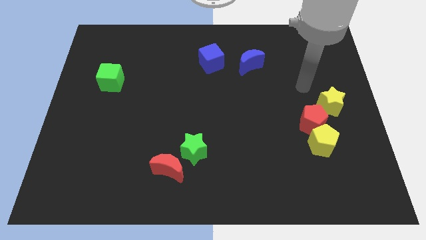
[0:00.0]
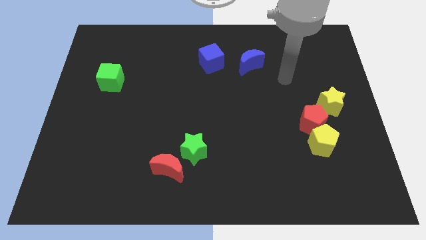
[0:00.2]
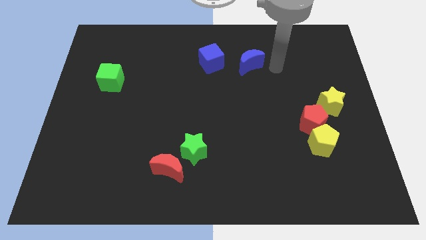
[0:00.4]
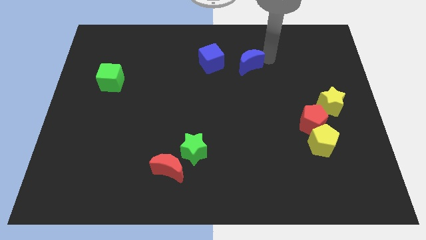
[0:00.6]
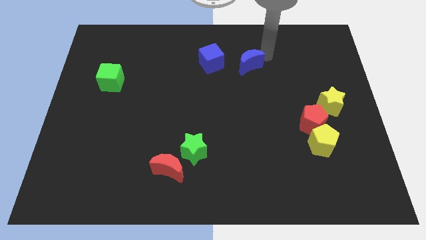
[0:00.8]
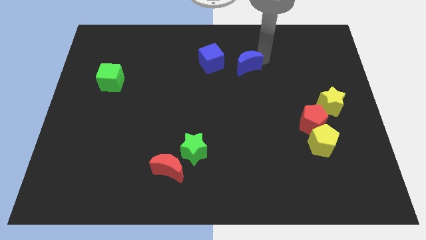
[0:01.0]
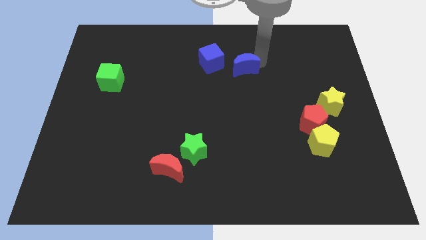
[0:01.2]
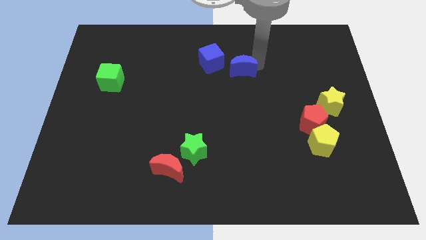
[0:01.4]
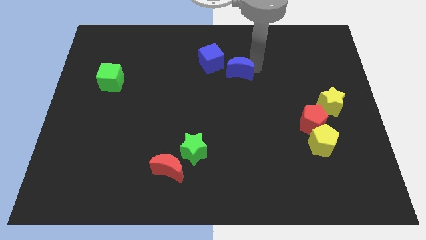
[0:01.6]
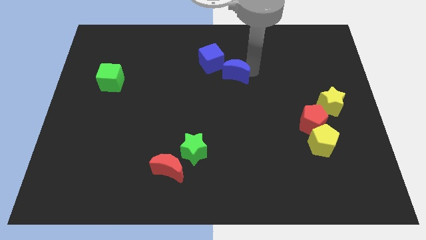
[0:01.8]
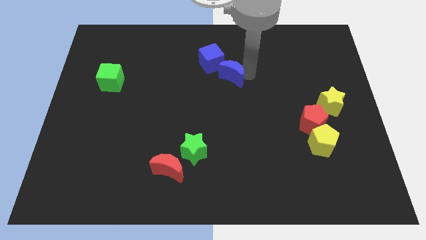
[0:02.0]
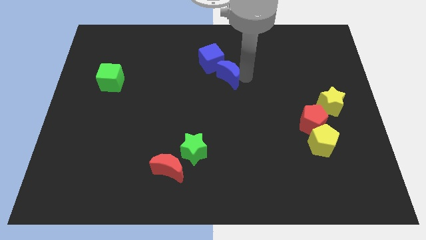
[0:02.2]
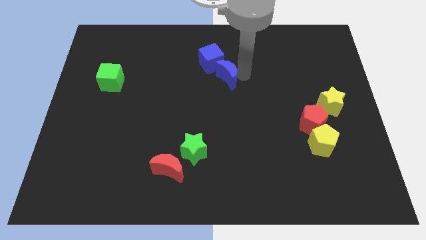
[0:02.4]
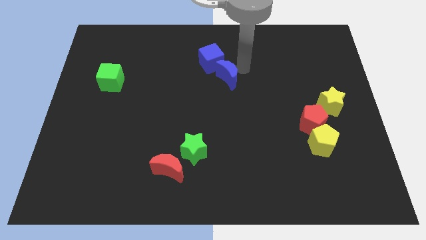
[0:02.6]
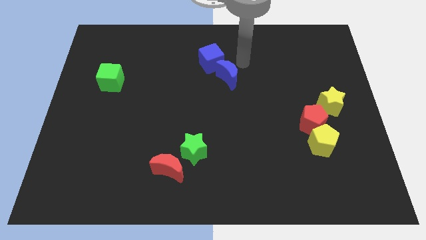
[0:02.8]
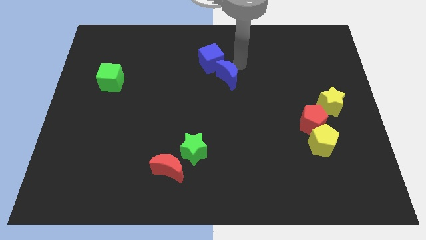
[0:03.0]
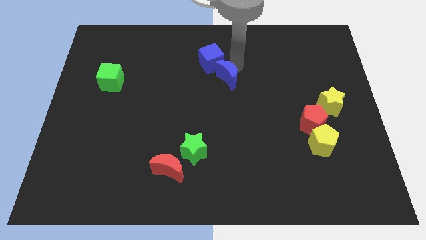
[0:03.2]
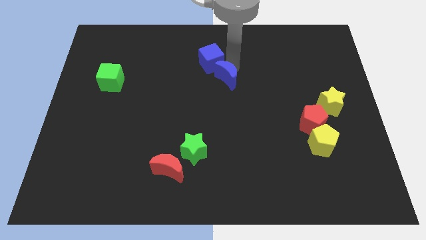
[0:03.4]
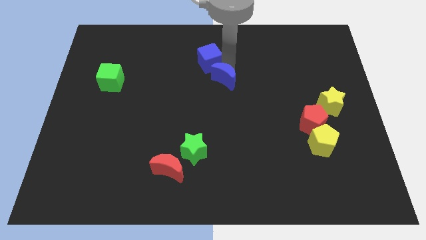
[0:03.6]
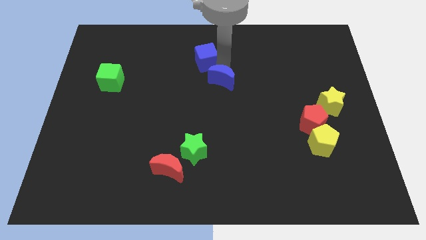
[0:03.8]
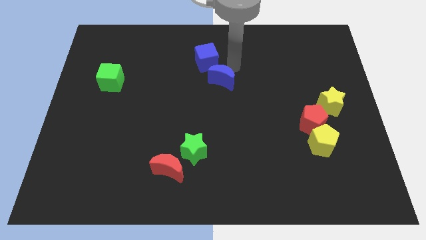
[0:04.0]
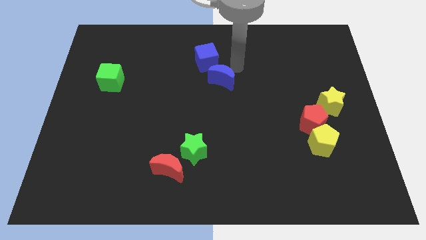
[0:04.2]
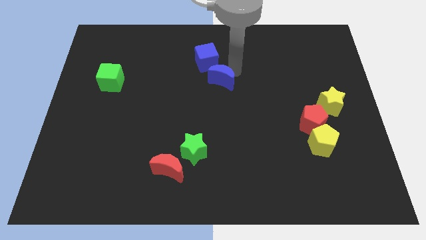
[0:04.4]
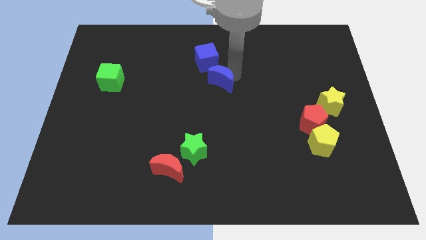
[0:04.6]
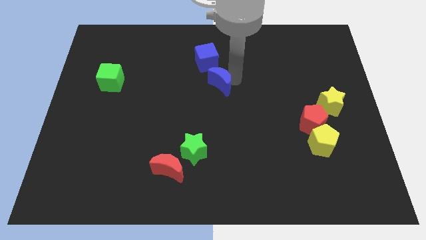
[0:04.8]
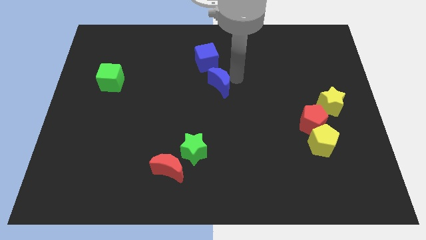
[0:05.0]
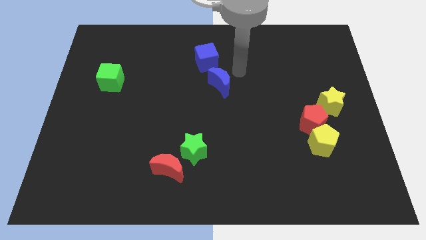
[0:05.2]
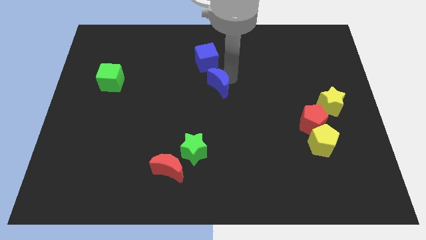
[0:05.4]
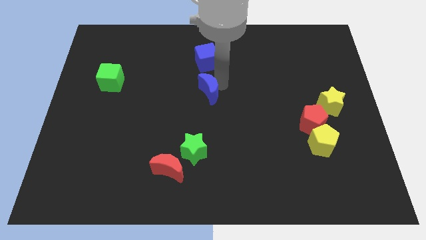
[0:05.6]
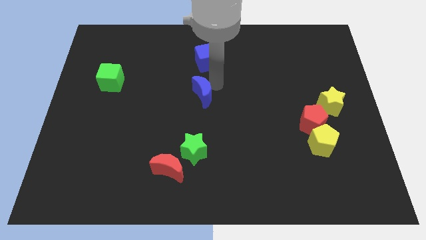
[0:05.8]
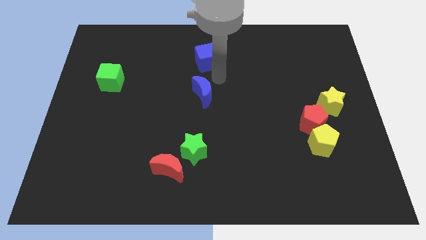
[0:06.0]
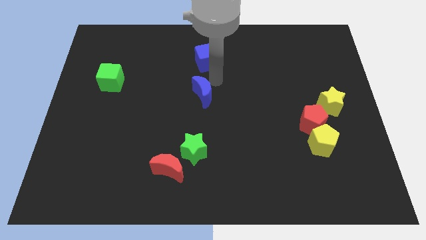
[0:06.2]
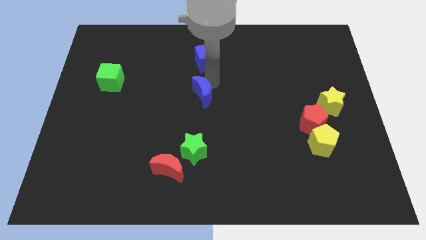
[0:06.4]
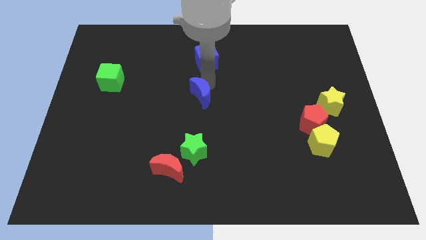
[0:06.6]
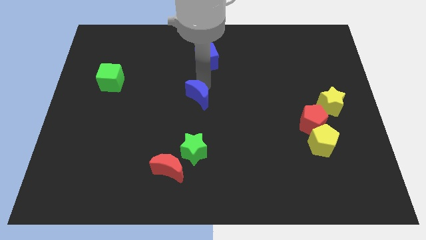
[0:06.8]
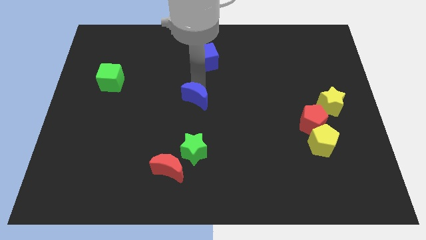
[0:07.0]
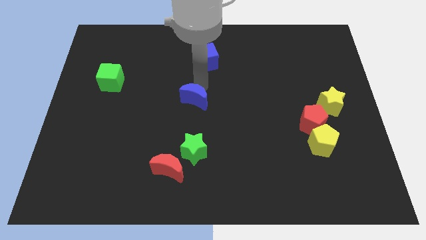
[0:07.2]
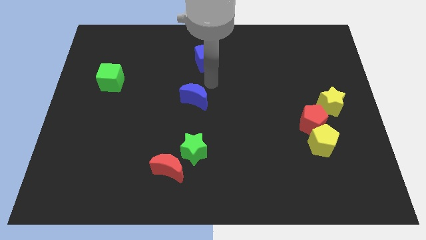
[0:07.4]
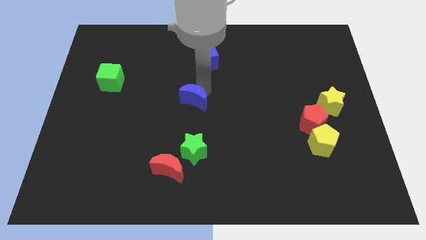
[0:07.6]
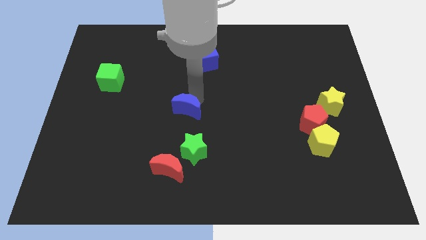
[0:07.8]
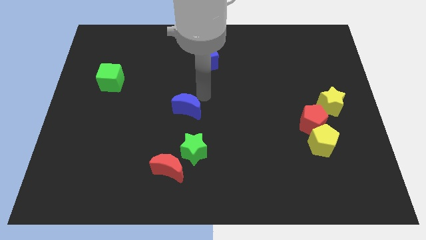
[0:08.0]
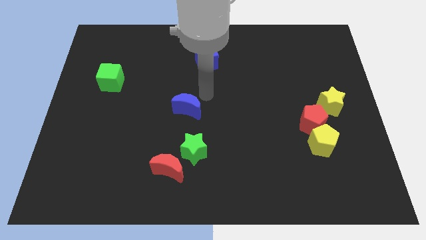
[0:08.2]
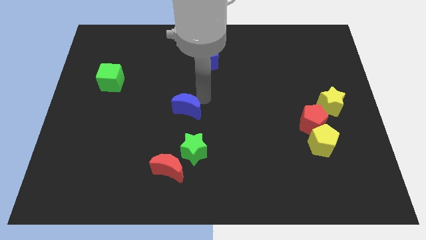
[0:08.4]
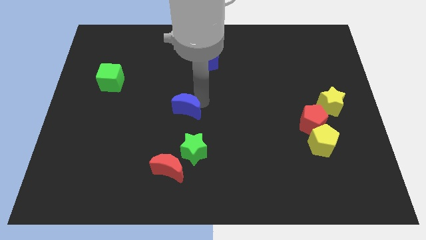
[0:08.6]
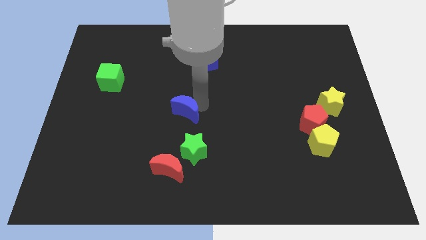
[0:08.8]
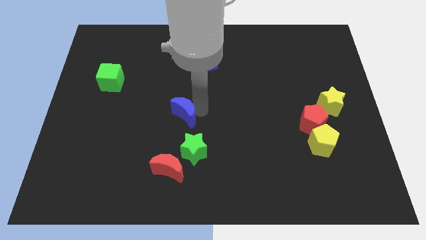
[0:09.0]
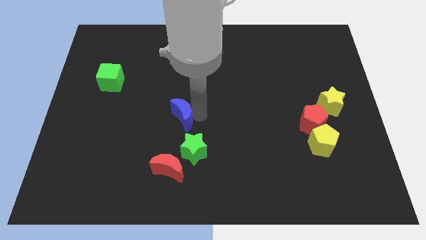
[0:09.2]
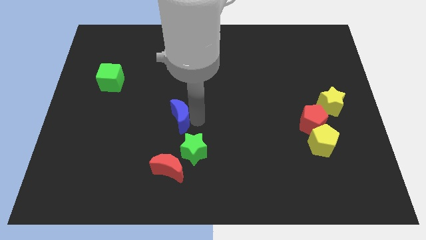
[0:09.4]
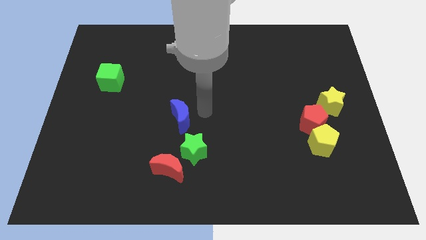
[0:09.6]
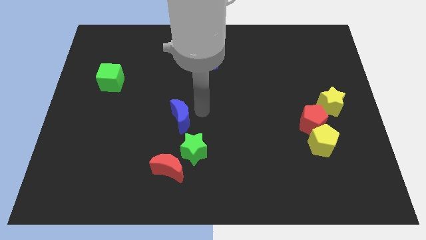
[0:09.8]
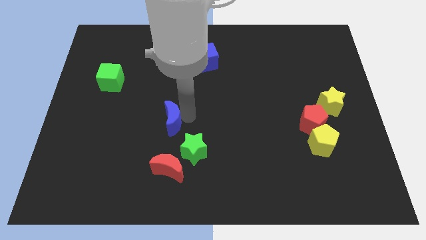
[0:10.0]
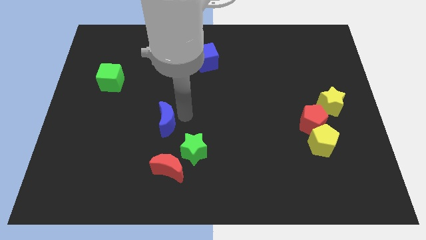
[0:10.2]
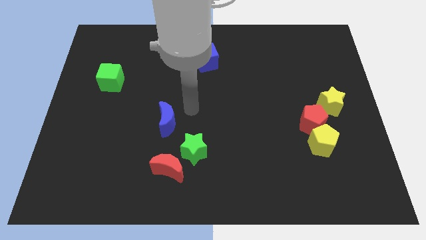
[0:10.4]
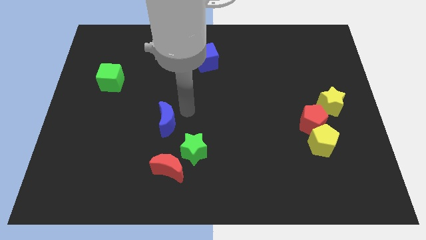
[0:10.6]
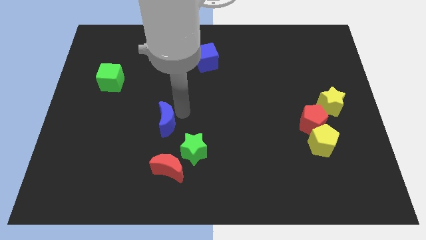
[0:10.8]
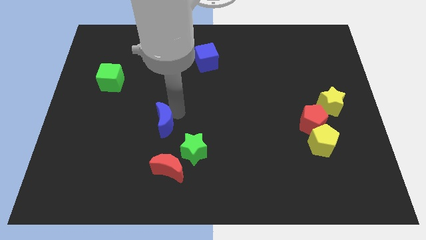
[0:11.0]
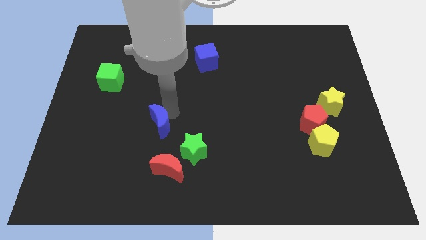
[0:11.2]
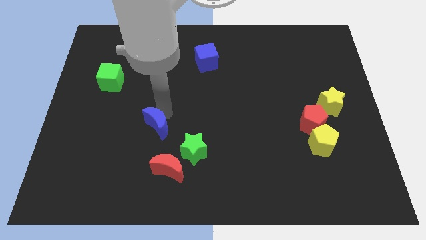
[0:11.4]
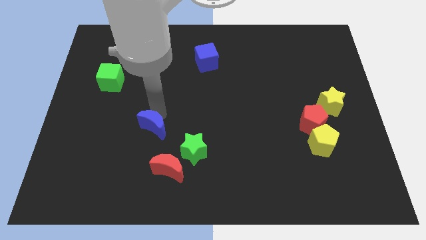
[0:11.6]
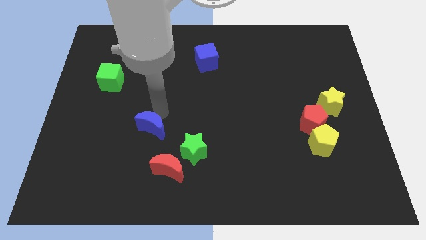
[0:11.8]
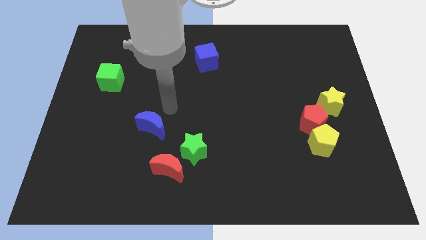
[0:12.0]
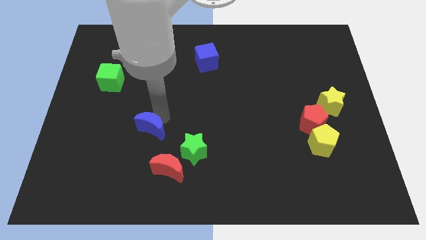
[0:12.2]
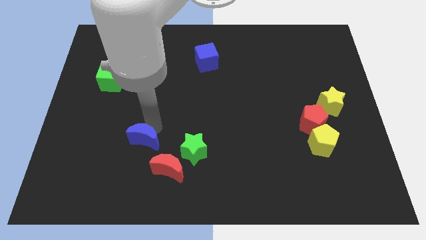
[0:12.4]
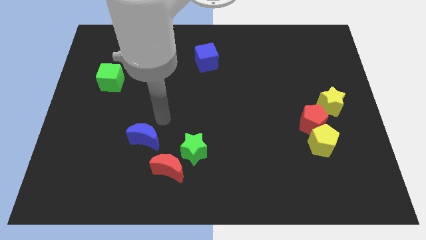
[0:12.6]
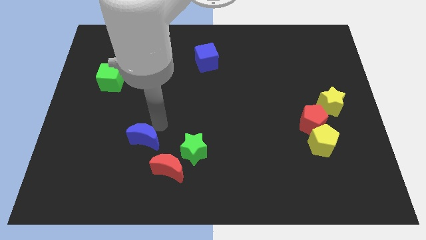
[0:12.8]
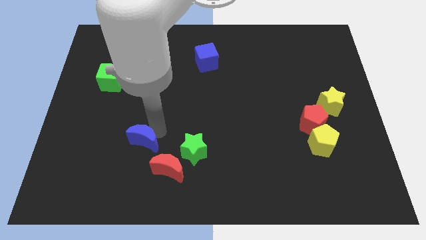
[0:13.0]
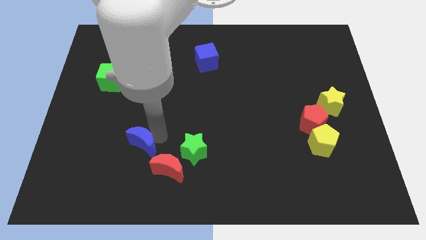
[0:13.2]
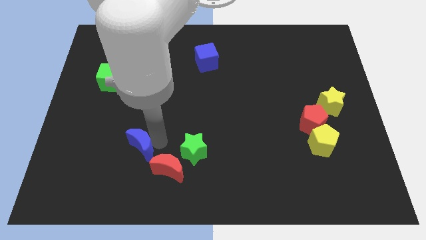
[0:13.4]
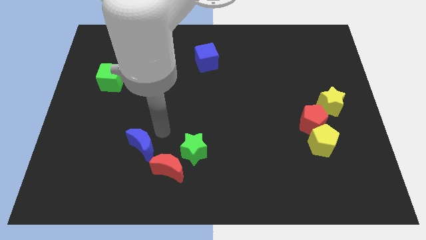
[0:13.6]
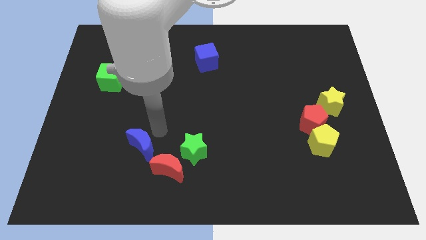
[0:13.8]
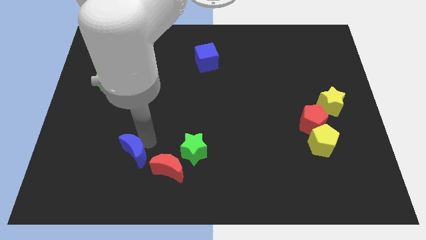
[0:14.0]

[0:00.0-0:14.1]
slide the blue moon just left of the red moon
